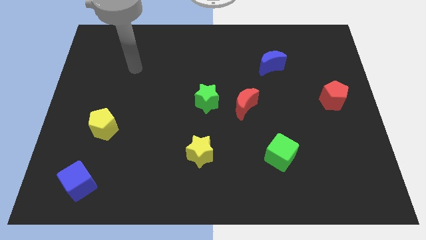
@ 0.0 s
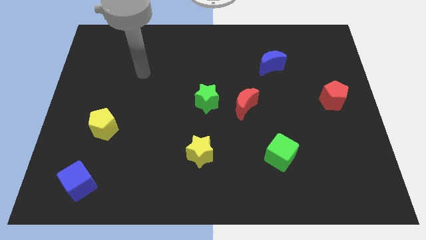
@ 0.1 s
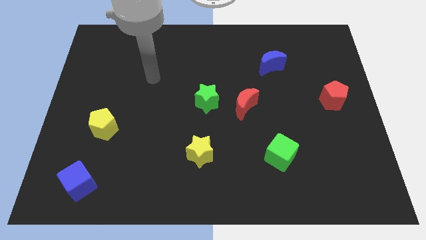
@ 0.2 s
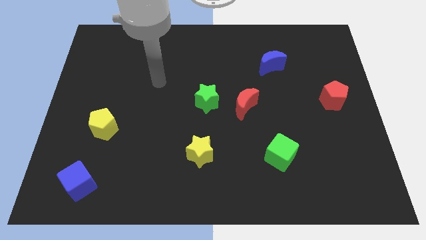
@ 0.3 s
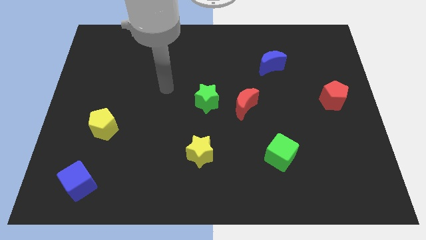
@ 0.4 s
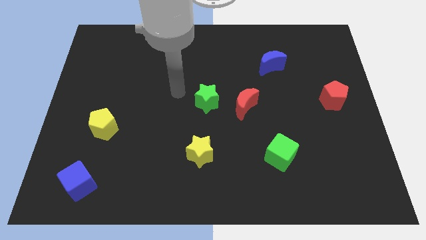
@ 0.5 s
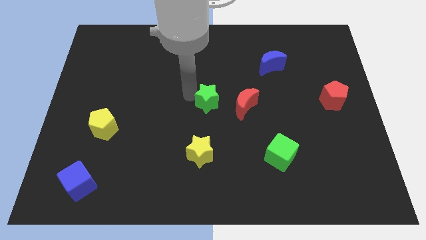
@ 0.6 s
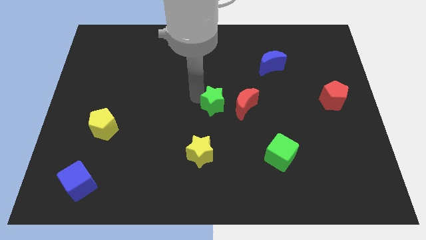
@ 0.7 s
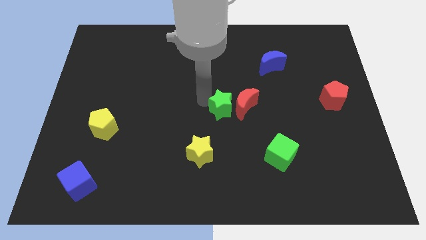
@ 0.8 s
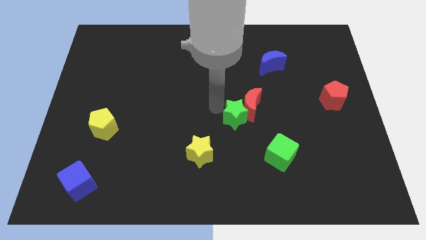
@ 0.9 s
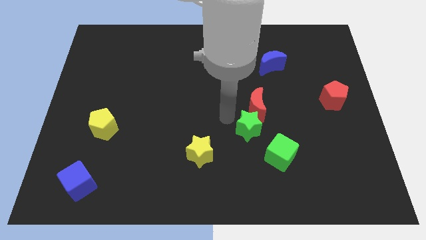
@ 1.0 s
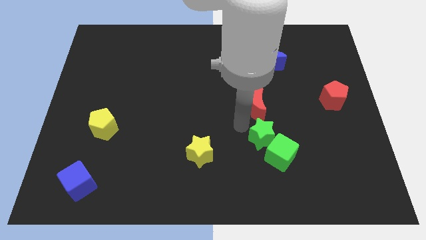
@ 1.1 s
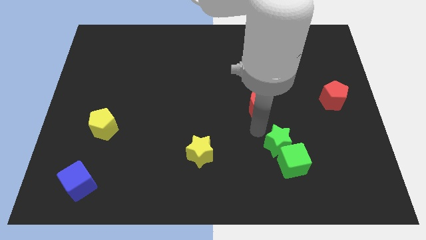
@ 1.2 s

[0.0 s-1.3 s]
separate the red moon from the green star

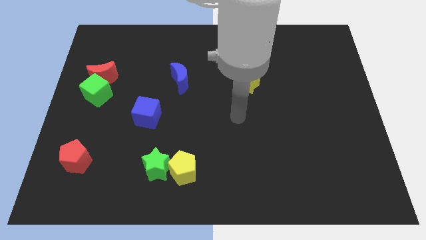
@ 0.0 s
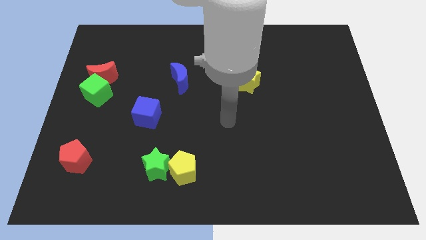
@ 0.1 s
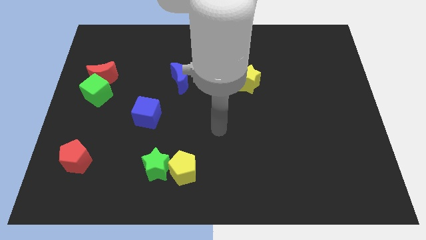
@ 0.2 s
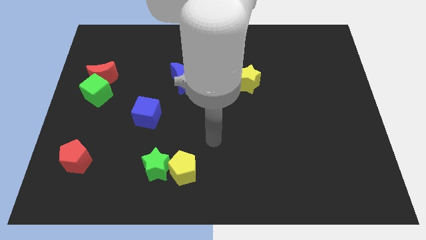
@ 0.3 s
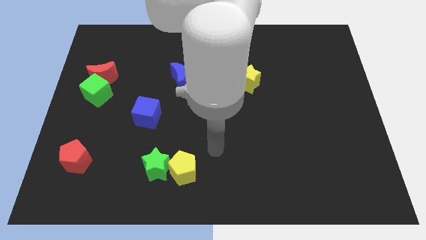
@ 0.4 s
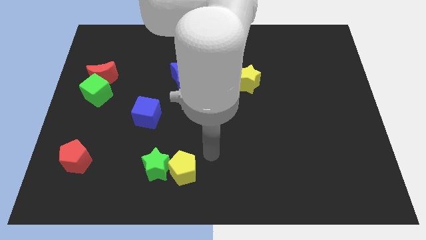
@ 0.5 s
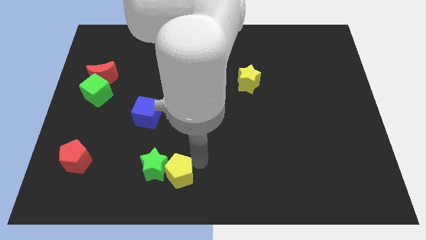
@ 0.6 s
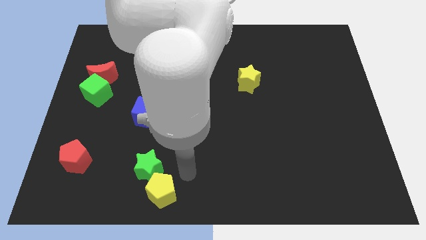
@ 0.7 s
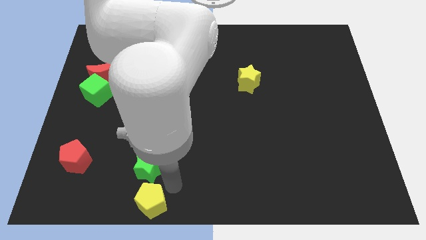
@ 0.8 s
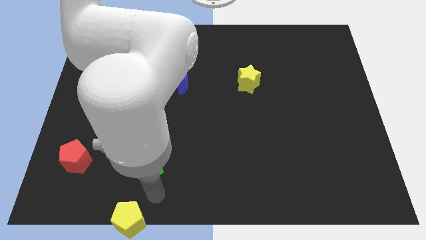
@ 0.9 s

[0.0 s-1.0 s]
move the green star away from the yellow pentagon

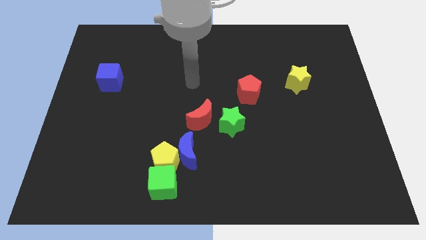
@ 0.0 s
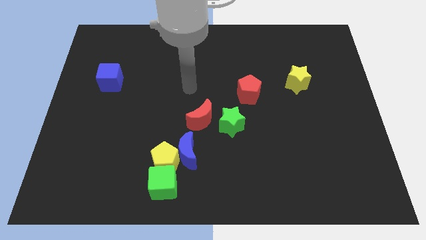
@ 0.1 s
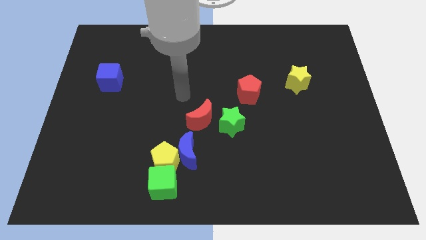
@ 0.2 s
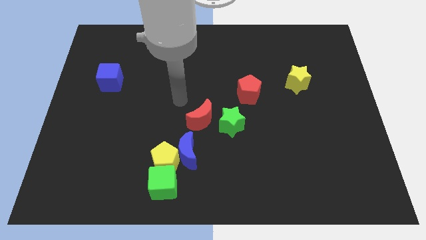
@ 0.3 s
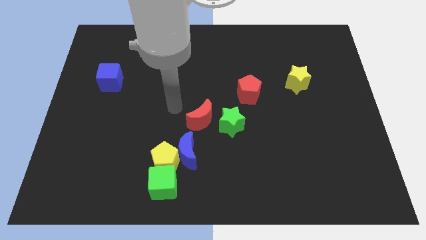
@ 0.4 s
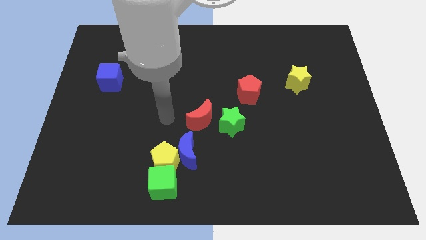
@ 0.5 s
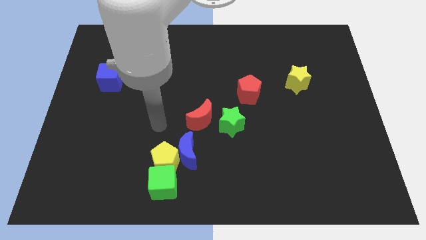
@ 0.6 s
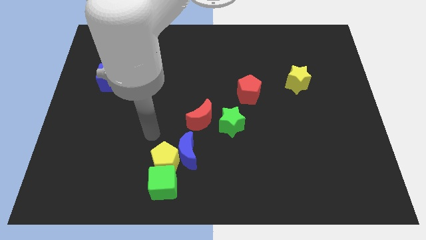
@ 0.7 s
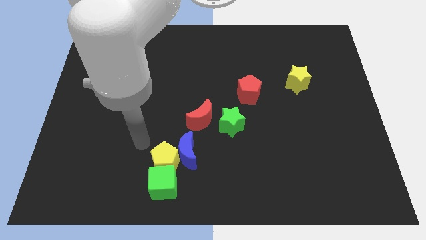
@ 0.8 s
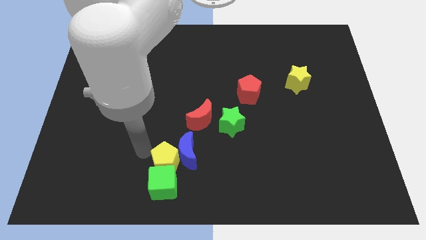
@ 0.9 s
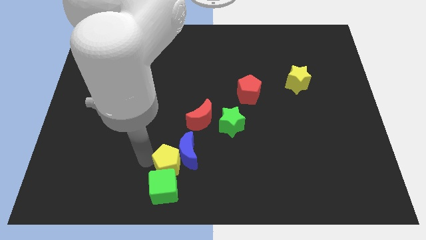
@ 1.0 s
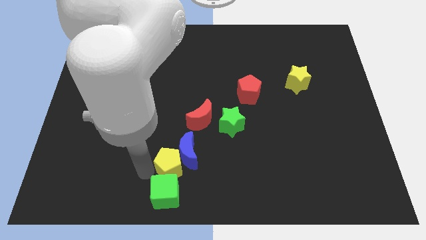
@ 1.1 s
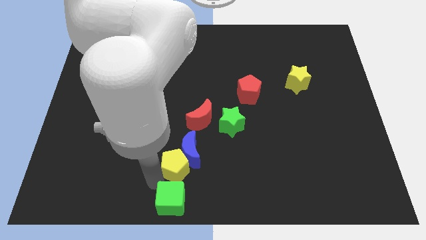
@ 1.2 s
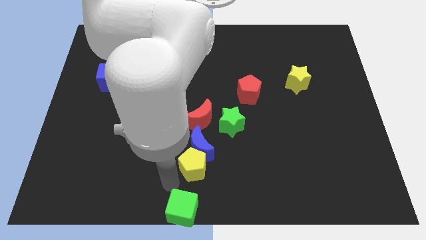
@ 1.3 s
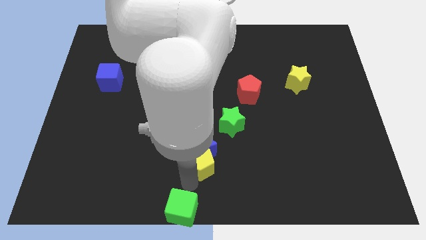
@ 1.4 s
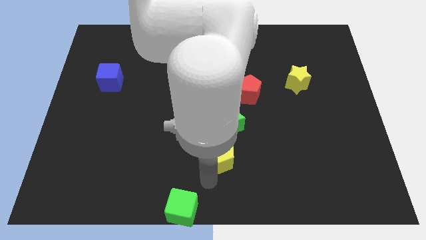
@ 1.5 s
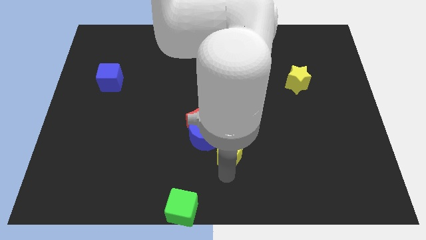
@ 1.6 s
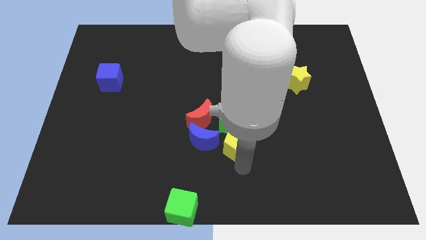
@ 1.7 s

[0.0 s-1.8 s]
move the yellow pentagon away from the blue moon and green cube

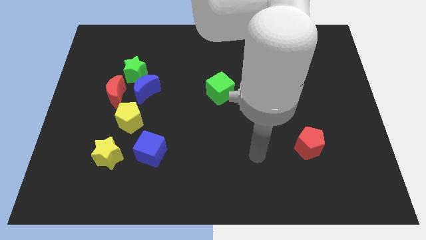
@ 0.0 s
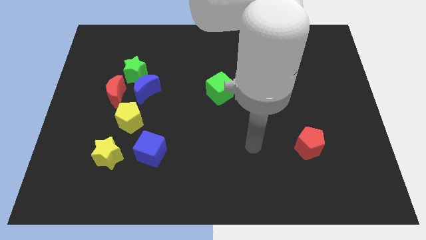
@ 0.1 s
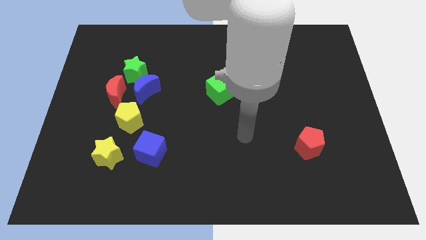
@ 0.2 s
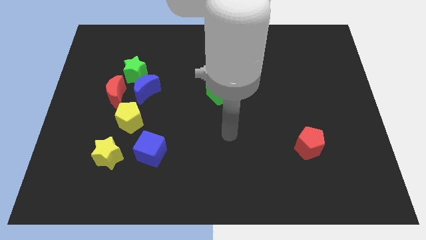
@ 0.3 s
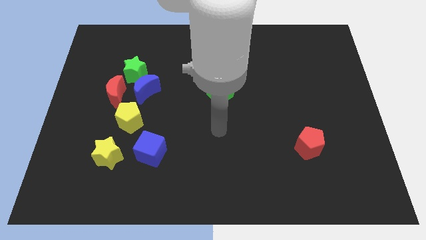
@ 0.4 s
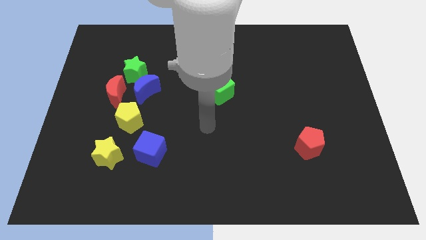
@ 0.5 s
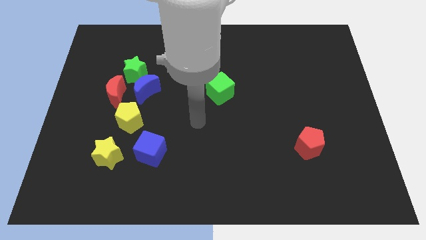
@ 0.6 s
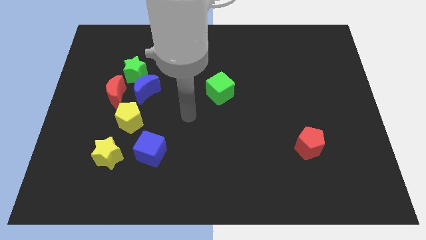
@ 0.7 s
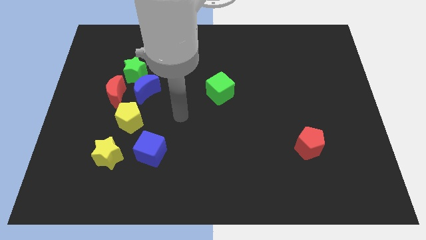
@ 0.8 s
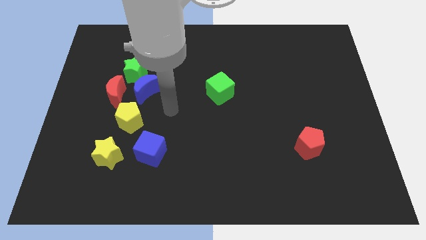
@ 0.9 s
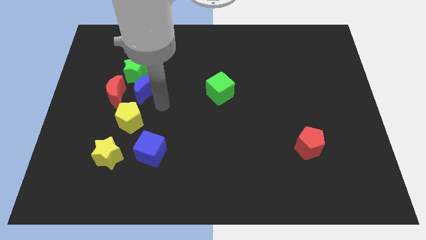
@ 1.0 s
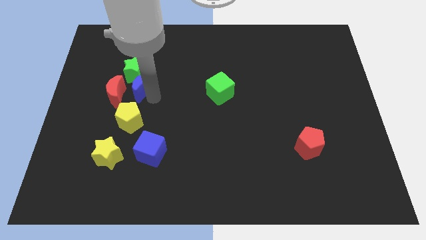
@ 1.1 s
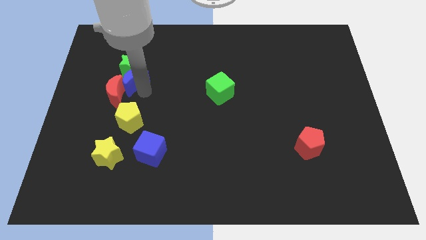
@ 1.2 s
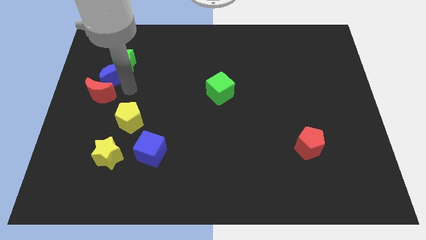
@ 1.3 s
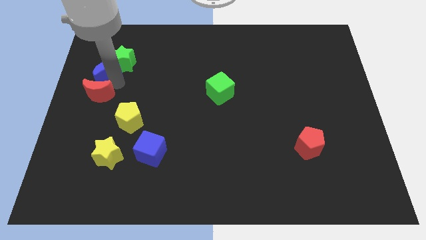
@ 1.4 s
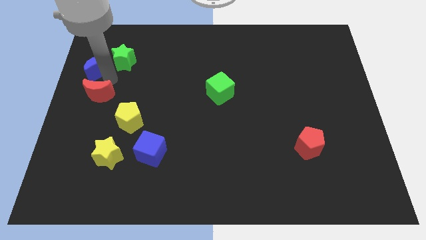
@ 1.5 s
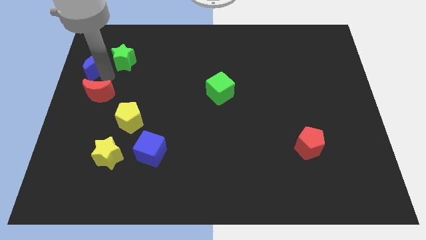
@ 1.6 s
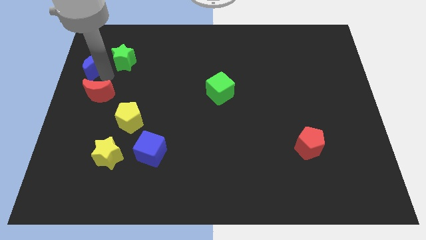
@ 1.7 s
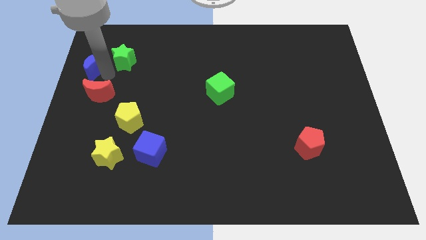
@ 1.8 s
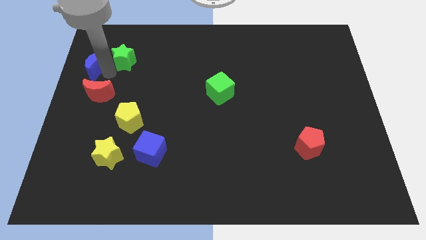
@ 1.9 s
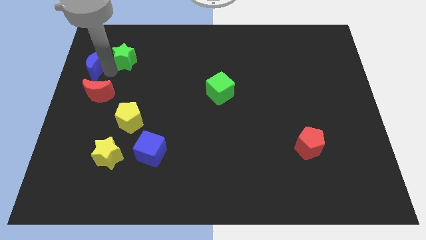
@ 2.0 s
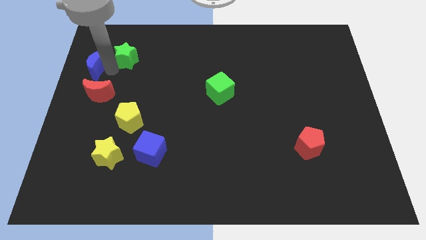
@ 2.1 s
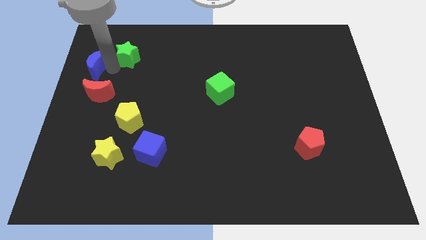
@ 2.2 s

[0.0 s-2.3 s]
move the green star away from the blue moon and red moon

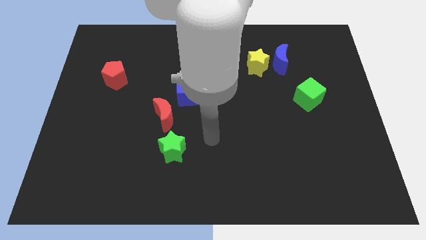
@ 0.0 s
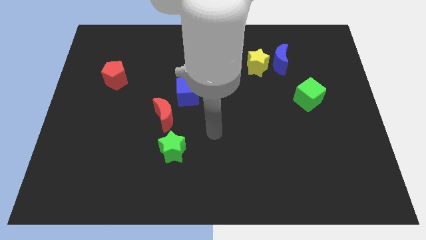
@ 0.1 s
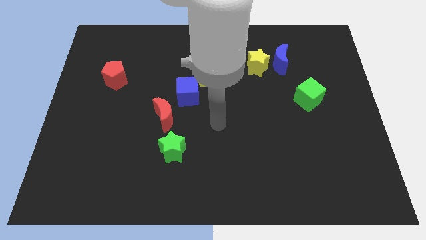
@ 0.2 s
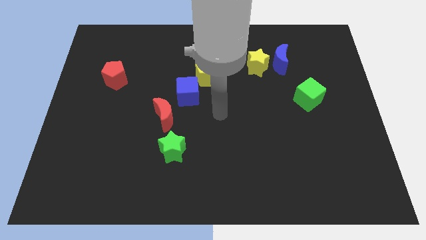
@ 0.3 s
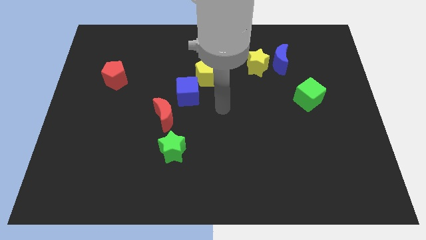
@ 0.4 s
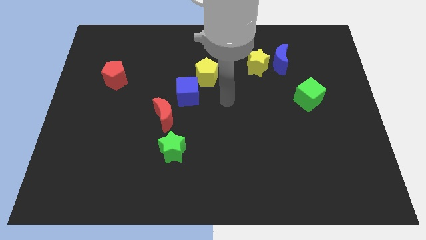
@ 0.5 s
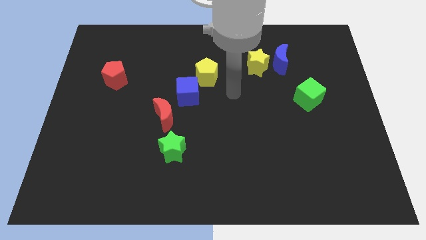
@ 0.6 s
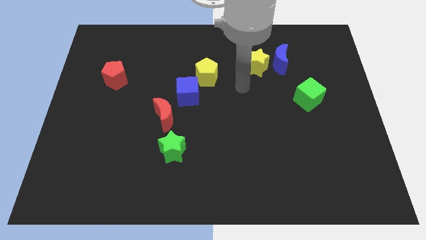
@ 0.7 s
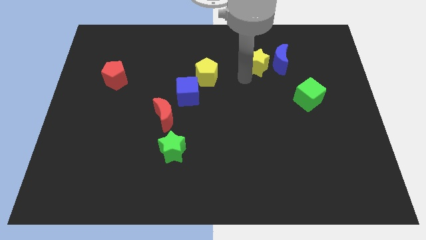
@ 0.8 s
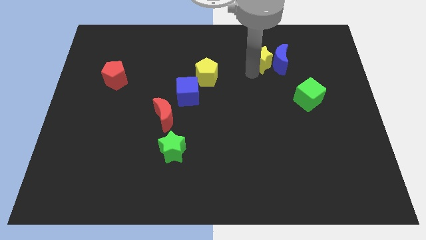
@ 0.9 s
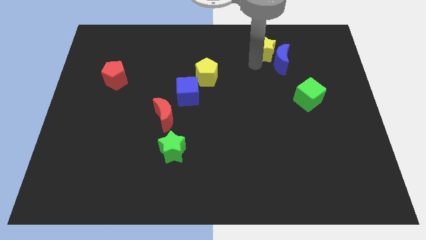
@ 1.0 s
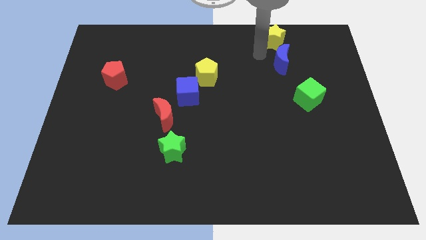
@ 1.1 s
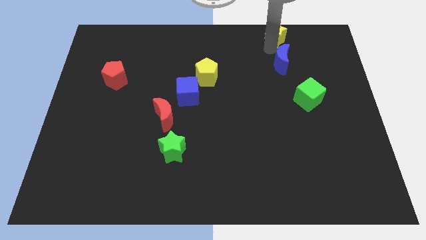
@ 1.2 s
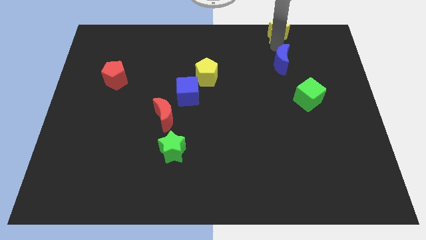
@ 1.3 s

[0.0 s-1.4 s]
move the blue moon away from the yellow star

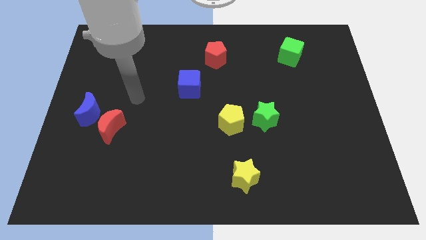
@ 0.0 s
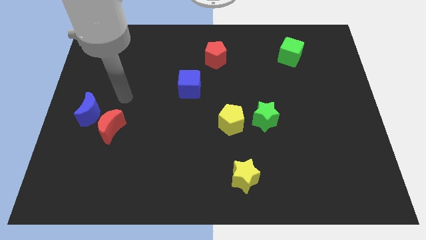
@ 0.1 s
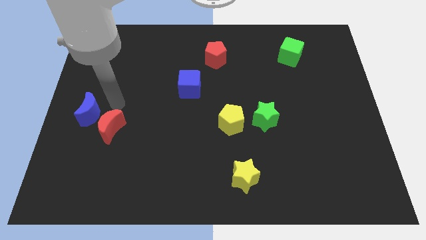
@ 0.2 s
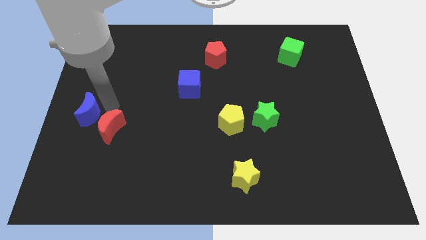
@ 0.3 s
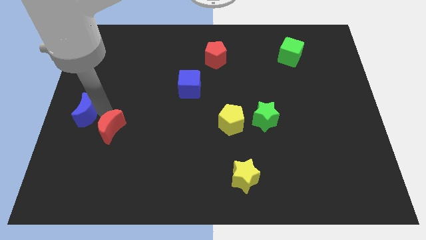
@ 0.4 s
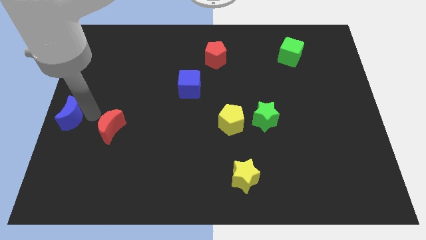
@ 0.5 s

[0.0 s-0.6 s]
separate the red moon from the blue moon

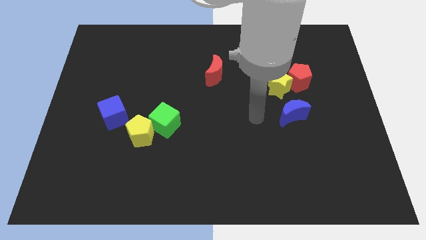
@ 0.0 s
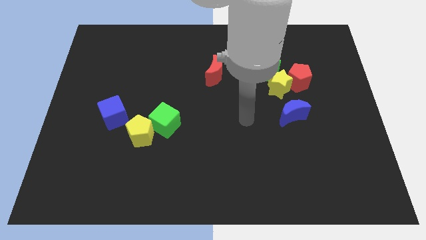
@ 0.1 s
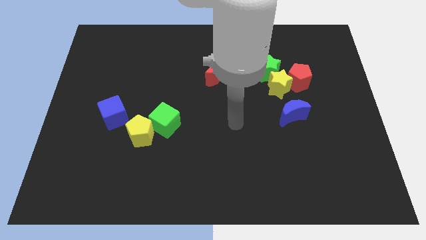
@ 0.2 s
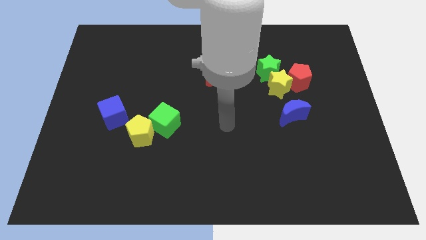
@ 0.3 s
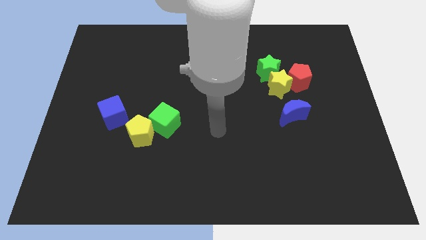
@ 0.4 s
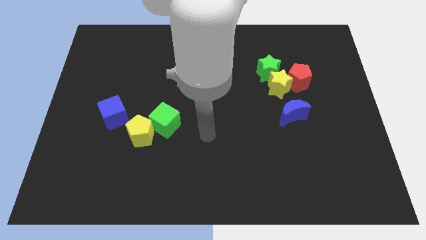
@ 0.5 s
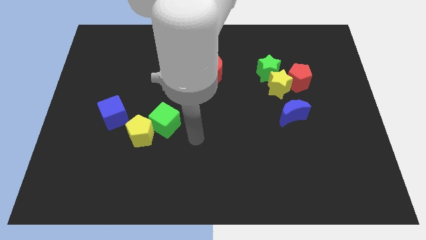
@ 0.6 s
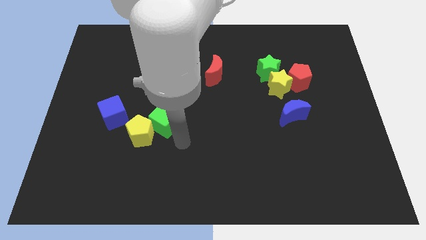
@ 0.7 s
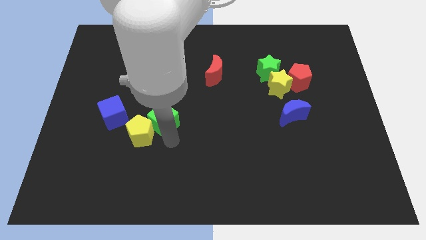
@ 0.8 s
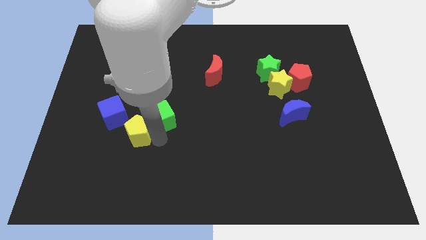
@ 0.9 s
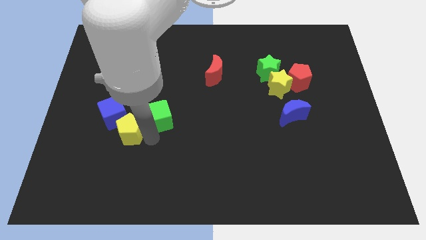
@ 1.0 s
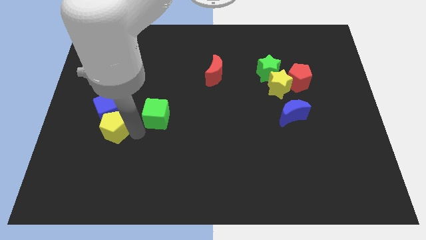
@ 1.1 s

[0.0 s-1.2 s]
separate the green cube from the yellow pentagon
